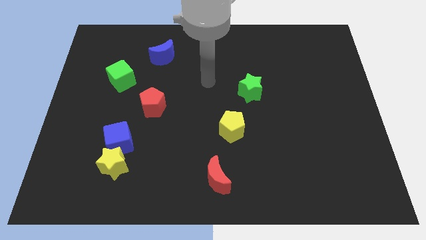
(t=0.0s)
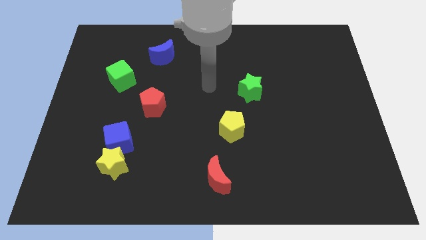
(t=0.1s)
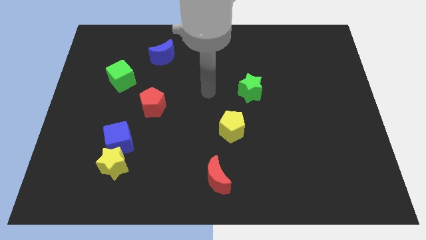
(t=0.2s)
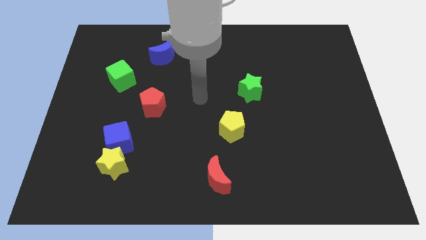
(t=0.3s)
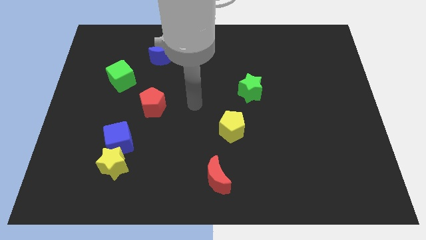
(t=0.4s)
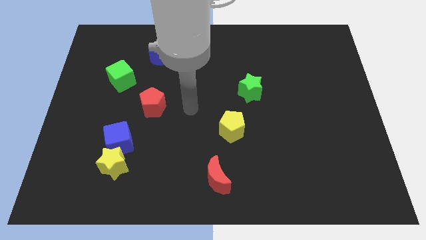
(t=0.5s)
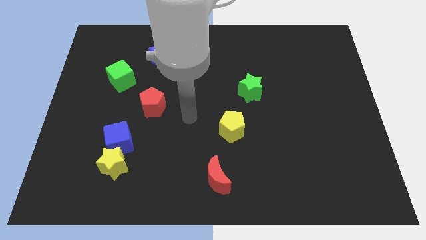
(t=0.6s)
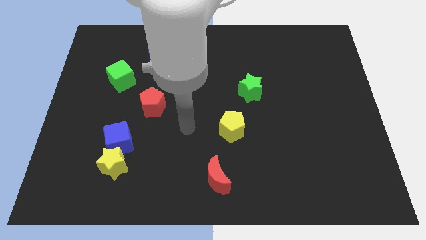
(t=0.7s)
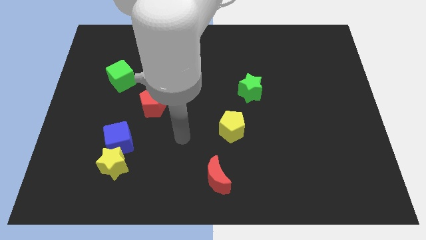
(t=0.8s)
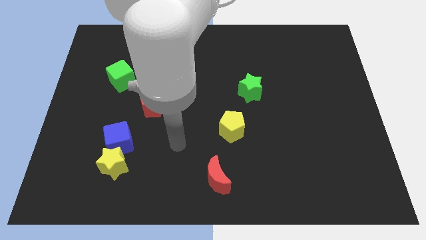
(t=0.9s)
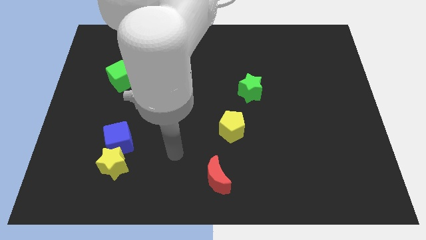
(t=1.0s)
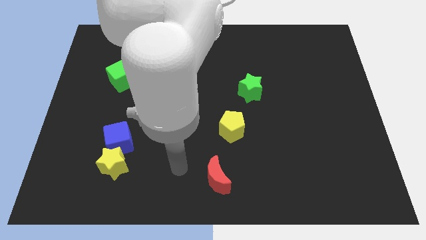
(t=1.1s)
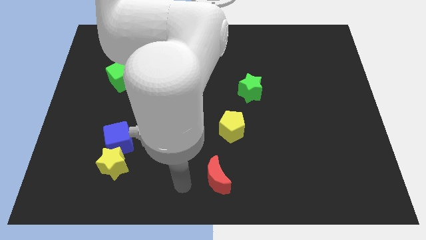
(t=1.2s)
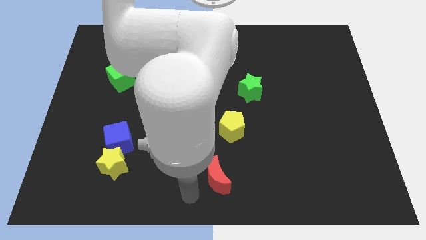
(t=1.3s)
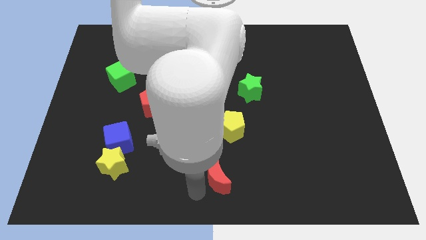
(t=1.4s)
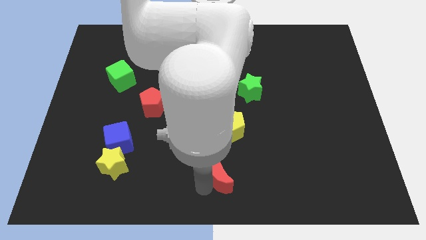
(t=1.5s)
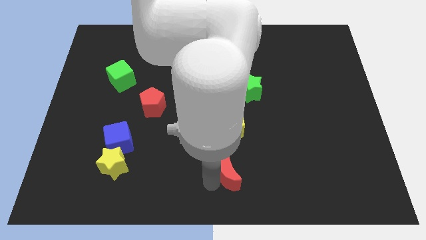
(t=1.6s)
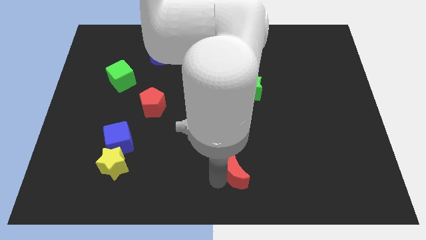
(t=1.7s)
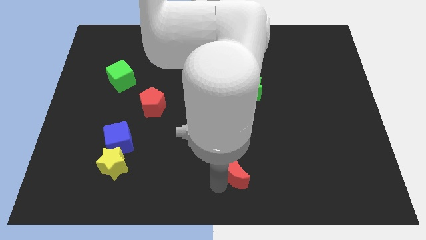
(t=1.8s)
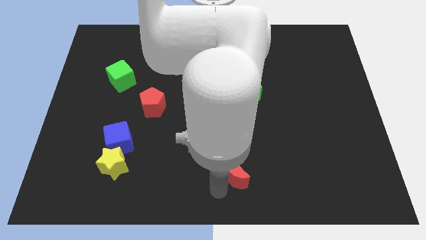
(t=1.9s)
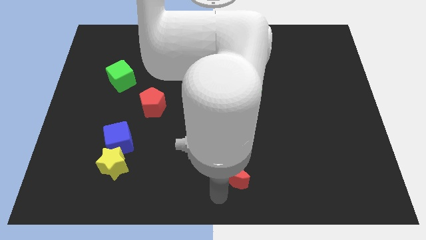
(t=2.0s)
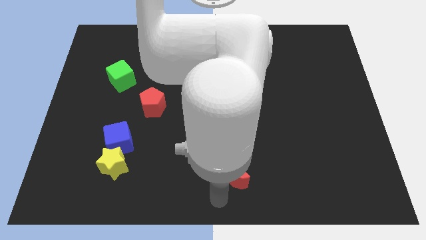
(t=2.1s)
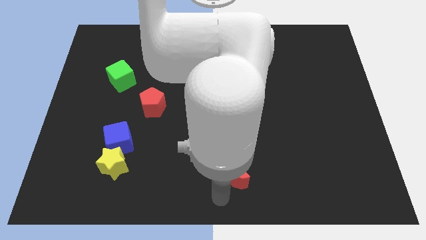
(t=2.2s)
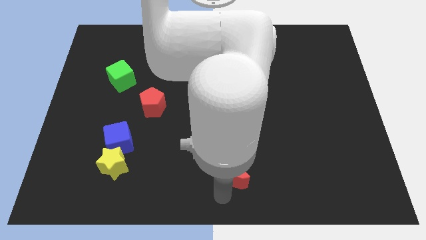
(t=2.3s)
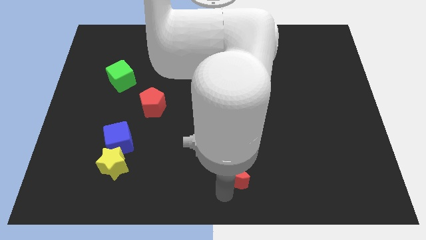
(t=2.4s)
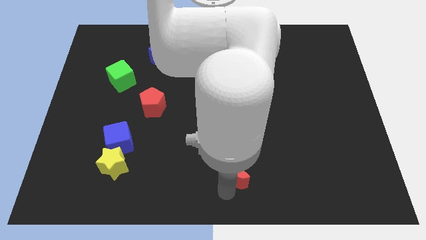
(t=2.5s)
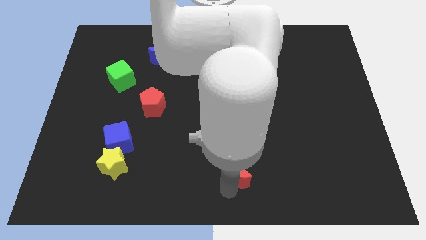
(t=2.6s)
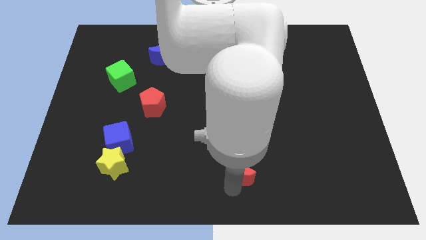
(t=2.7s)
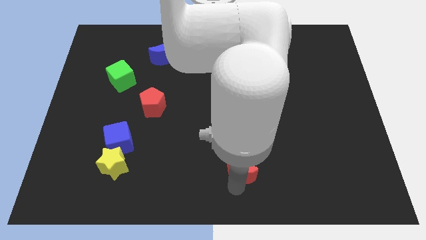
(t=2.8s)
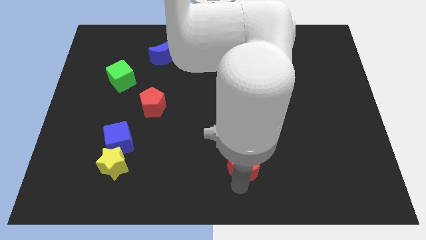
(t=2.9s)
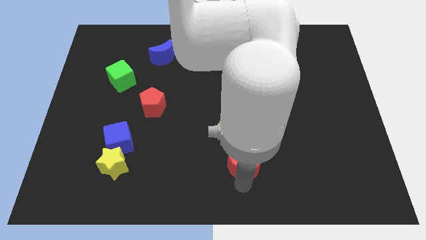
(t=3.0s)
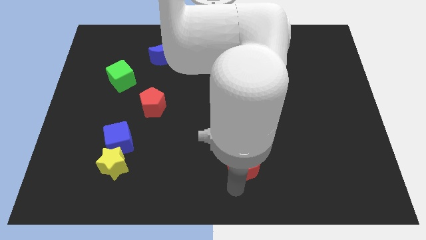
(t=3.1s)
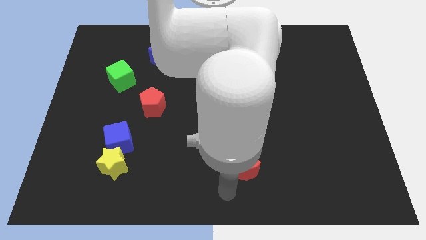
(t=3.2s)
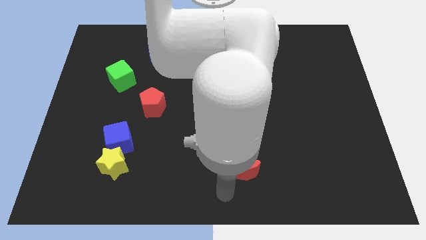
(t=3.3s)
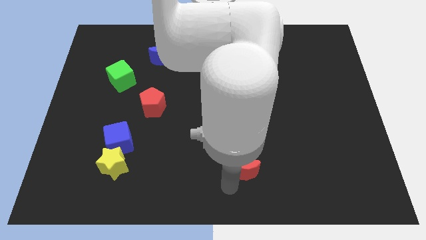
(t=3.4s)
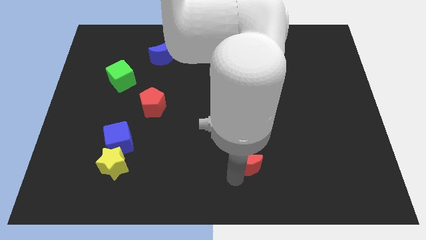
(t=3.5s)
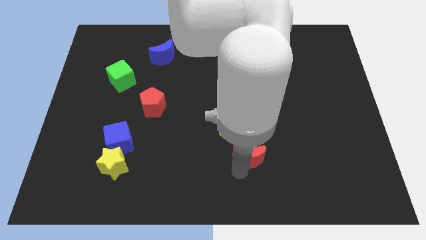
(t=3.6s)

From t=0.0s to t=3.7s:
slightly move the red moon up and then right

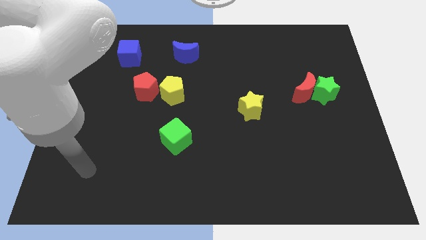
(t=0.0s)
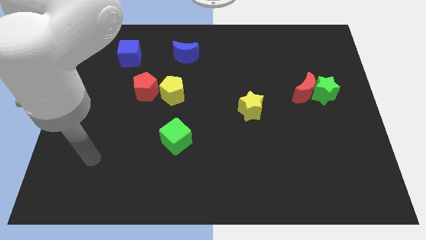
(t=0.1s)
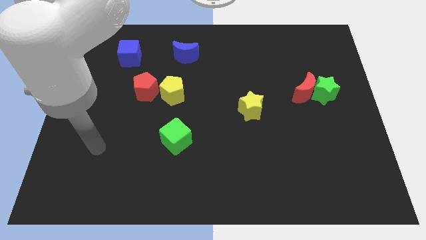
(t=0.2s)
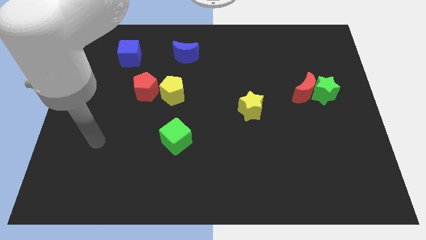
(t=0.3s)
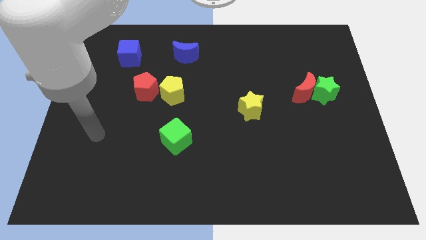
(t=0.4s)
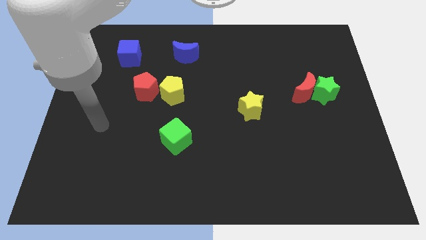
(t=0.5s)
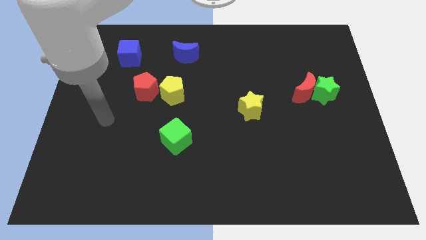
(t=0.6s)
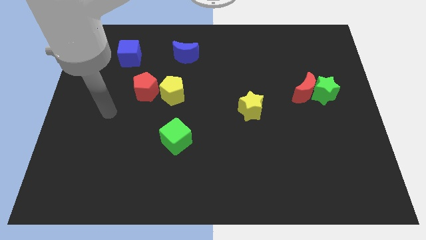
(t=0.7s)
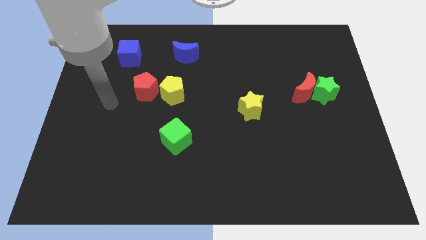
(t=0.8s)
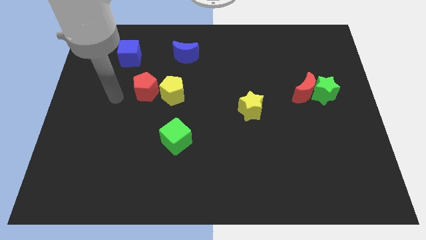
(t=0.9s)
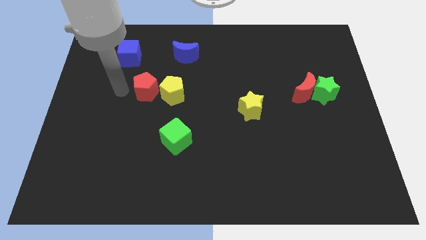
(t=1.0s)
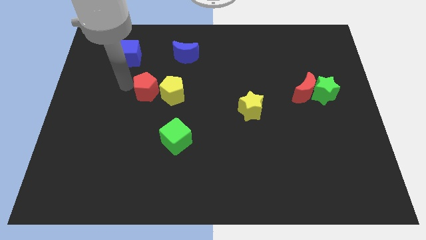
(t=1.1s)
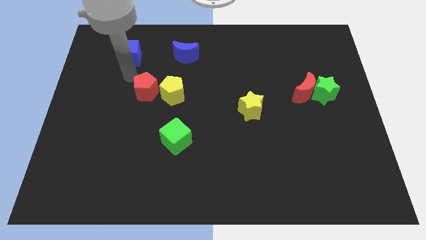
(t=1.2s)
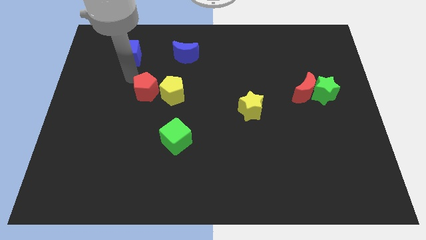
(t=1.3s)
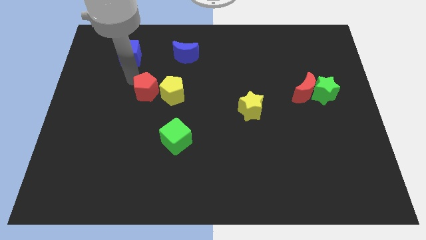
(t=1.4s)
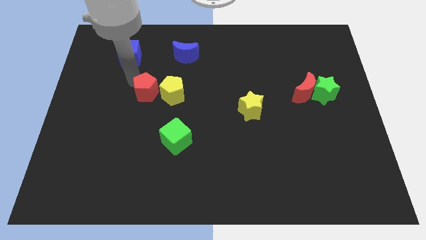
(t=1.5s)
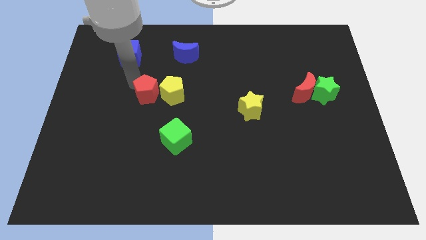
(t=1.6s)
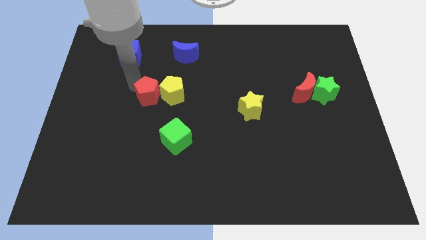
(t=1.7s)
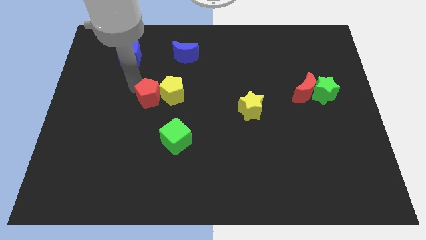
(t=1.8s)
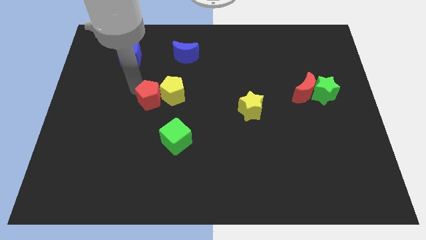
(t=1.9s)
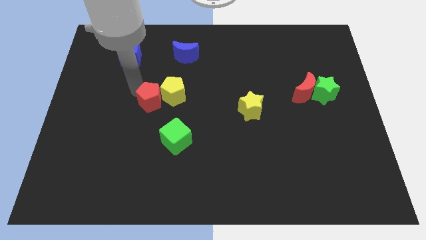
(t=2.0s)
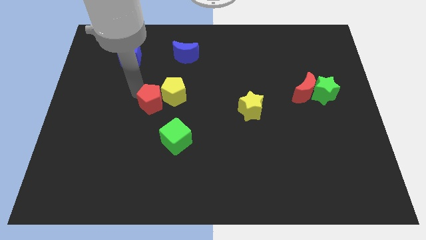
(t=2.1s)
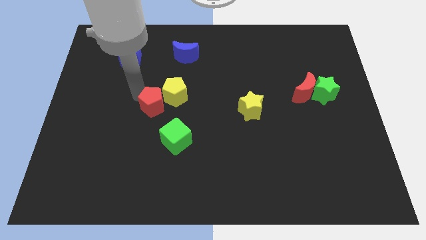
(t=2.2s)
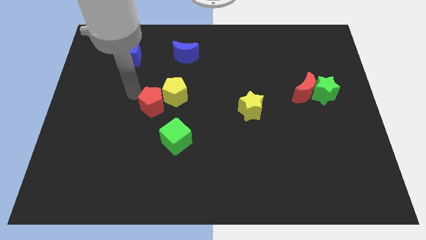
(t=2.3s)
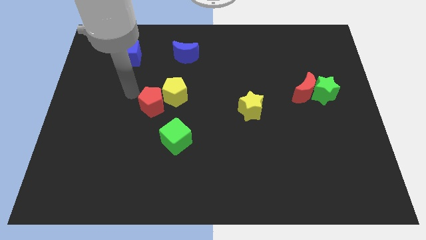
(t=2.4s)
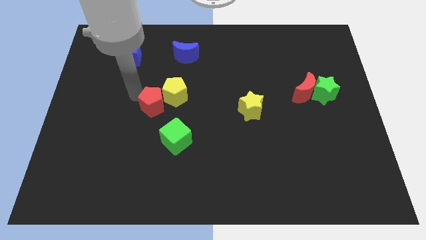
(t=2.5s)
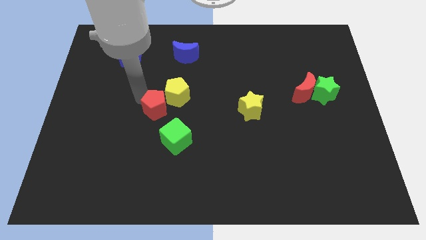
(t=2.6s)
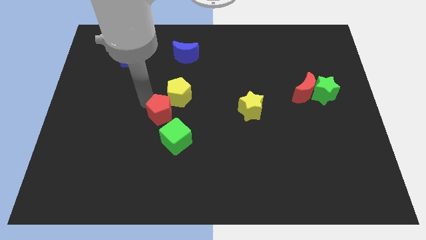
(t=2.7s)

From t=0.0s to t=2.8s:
move the red pentagon a little bit down and then to the right

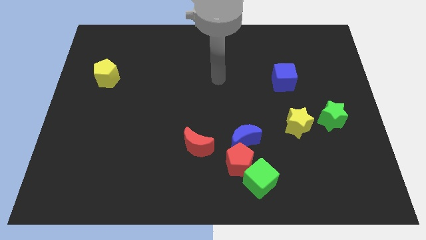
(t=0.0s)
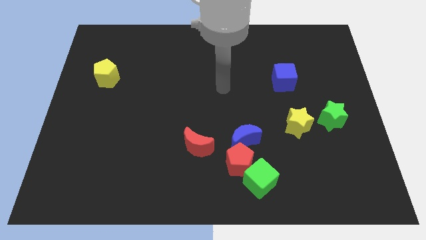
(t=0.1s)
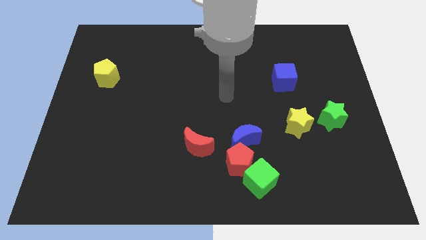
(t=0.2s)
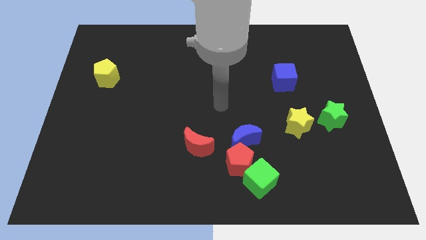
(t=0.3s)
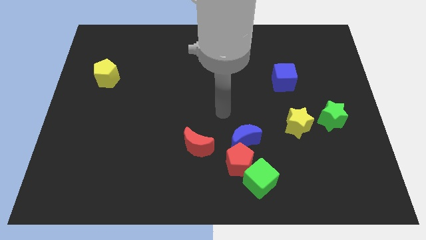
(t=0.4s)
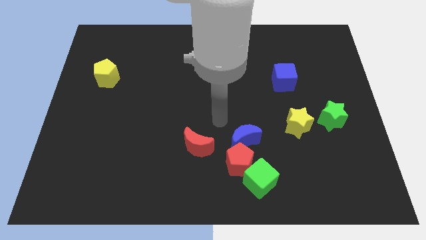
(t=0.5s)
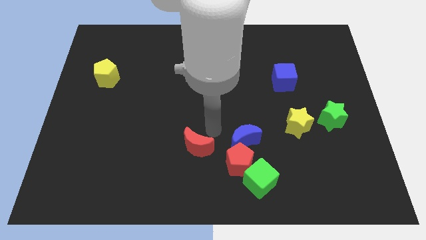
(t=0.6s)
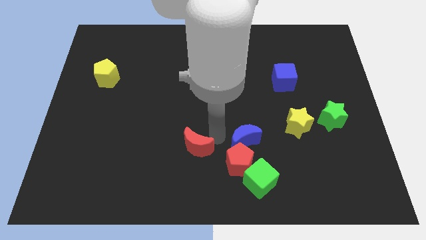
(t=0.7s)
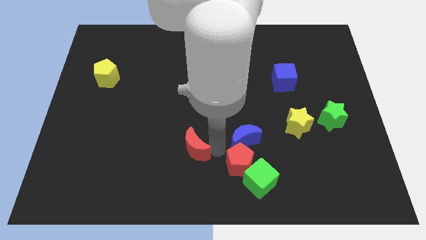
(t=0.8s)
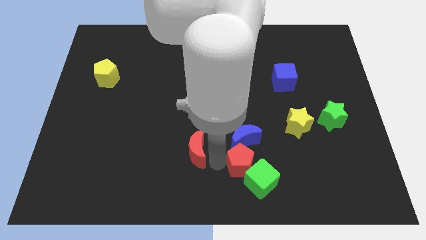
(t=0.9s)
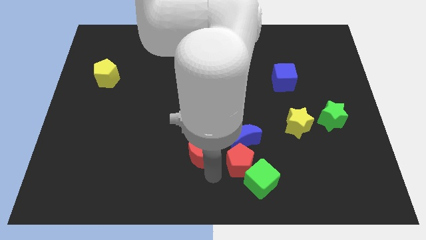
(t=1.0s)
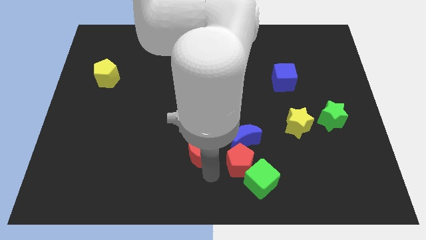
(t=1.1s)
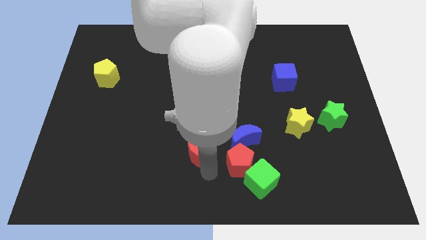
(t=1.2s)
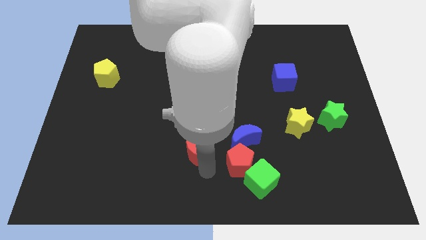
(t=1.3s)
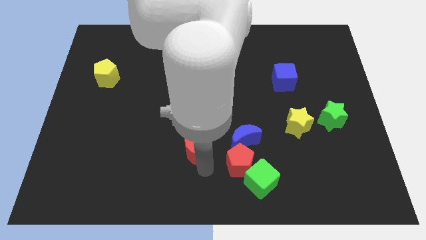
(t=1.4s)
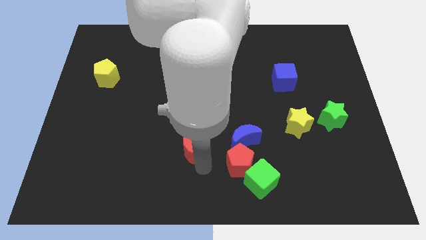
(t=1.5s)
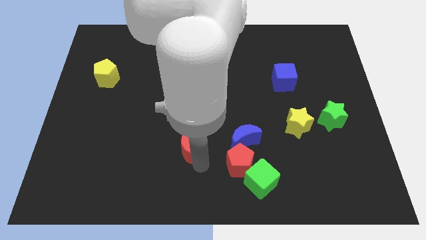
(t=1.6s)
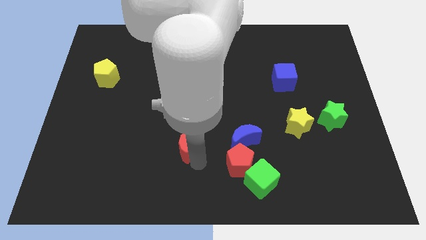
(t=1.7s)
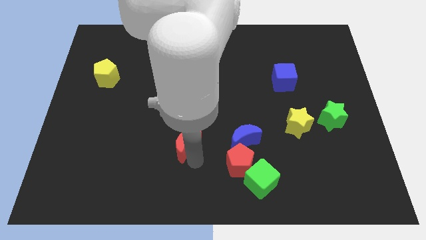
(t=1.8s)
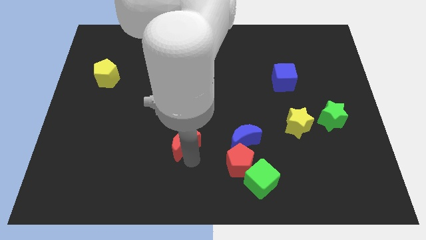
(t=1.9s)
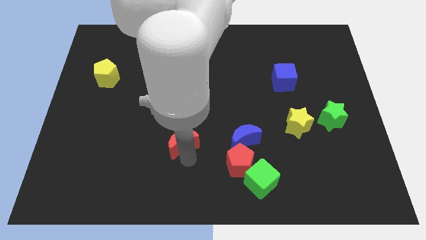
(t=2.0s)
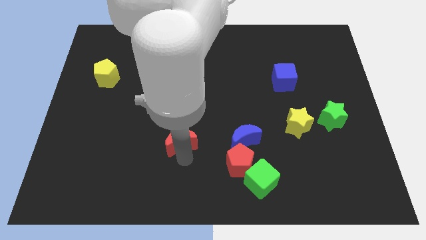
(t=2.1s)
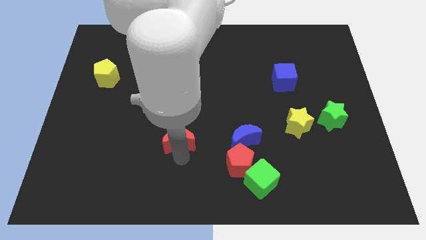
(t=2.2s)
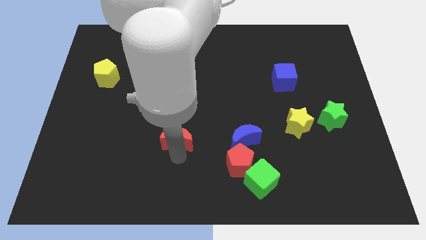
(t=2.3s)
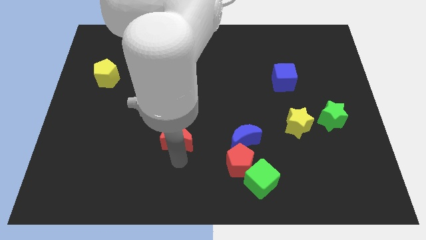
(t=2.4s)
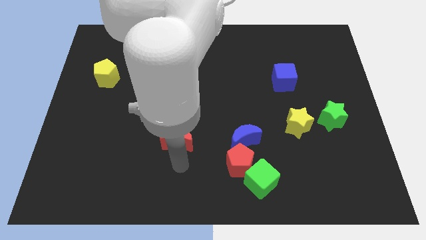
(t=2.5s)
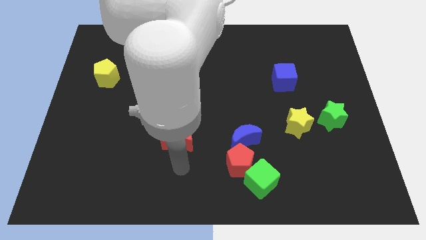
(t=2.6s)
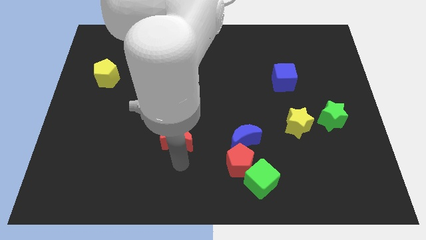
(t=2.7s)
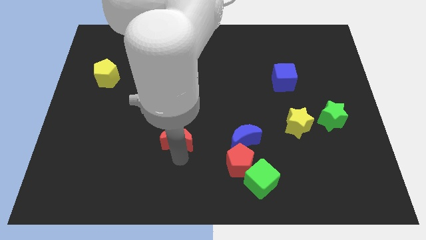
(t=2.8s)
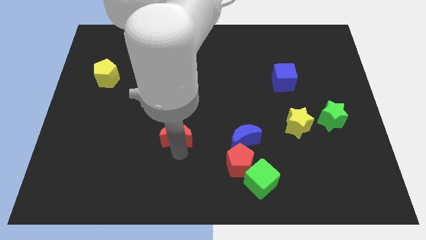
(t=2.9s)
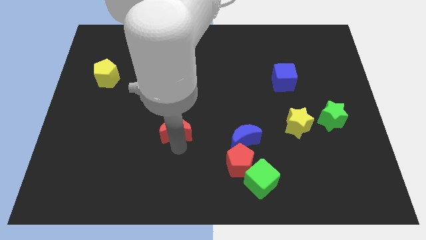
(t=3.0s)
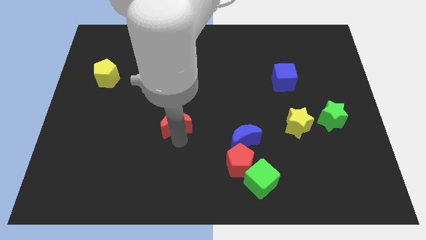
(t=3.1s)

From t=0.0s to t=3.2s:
move the red moon upwards and then left a bit
